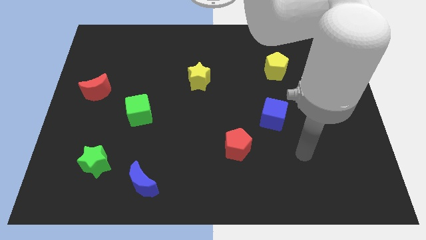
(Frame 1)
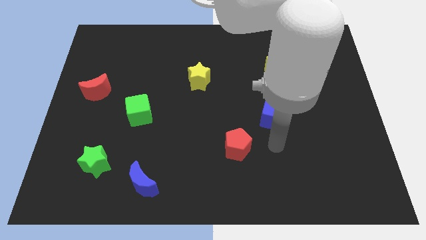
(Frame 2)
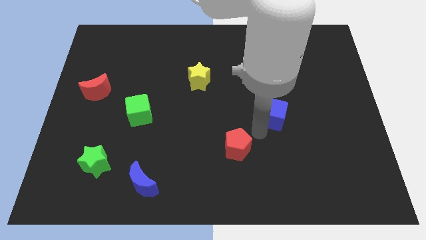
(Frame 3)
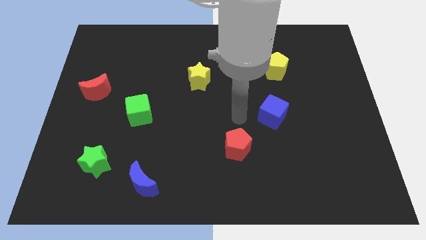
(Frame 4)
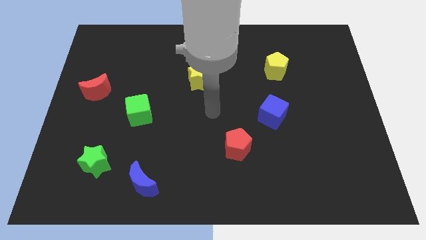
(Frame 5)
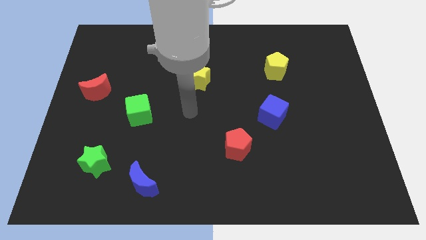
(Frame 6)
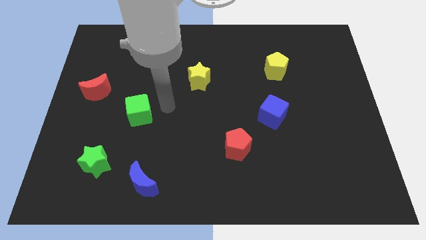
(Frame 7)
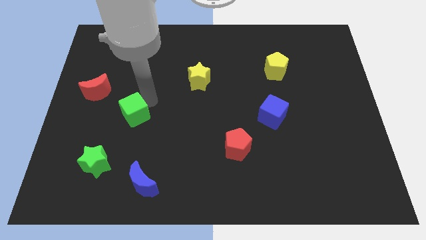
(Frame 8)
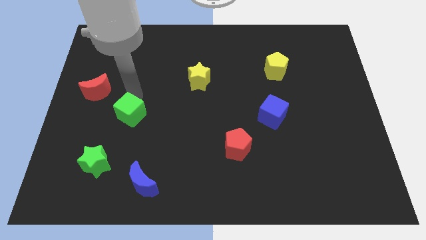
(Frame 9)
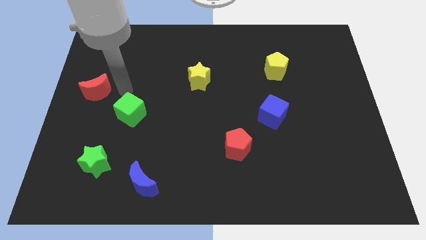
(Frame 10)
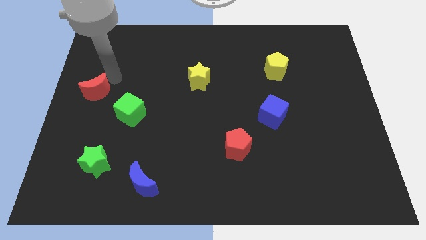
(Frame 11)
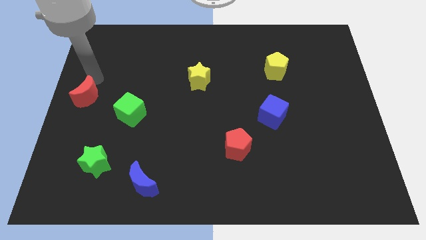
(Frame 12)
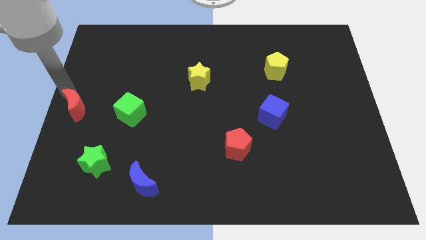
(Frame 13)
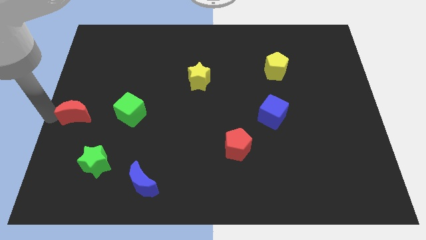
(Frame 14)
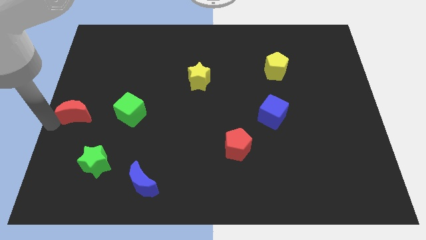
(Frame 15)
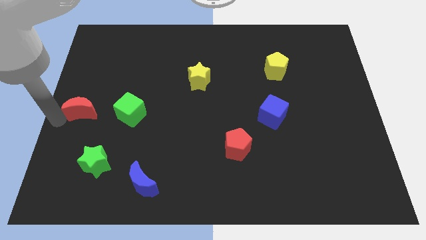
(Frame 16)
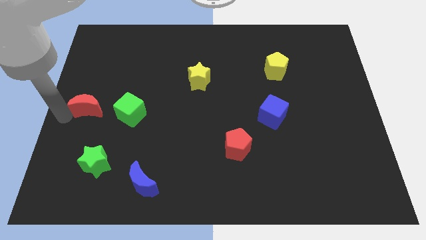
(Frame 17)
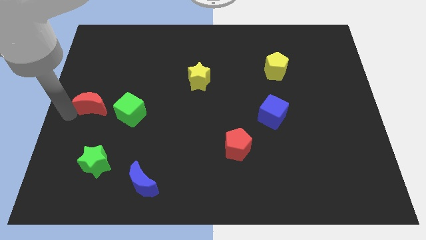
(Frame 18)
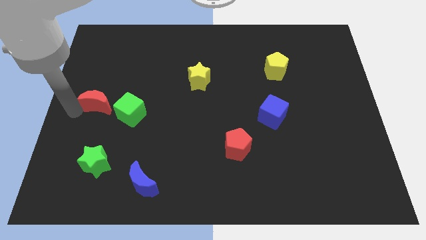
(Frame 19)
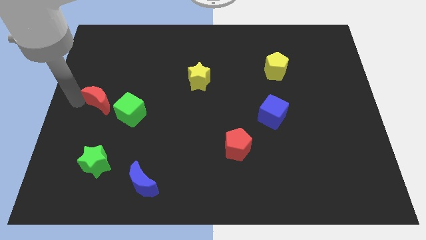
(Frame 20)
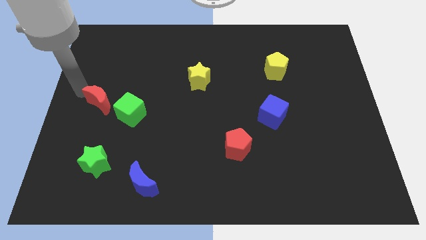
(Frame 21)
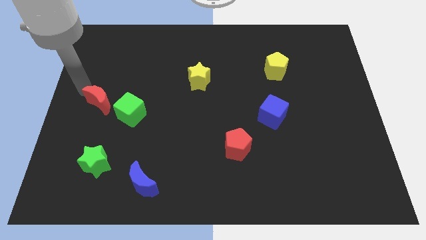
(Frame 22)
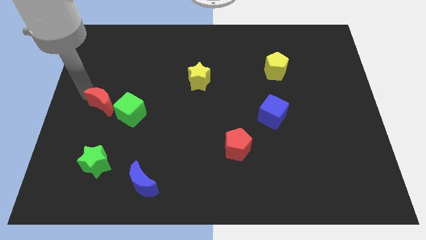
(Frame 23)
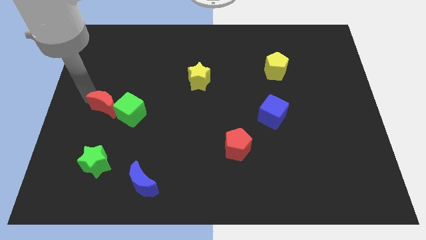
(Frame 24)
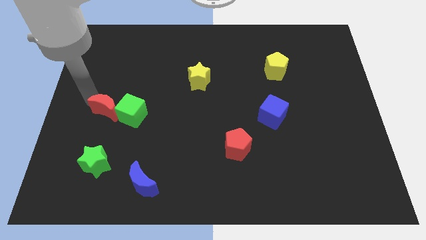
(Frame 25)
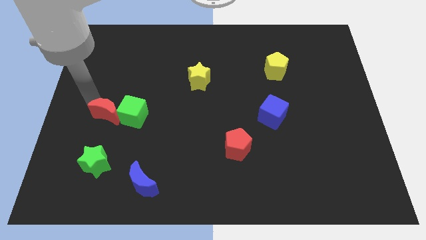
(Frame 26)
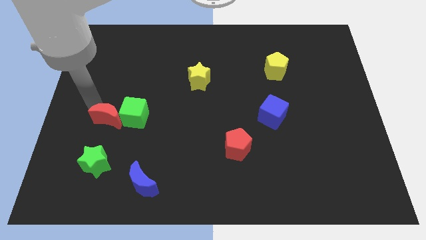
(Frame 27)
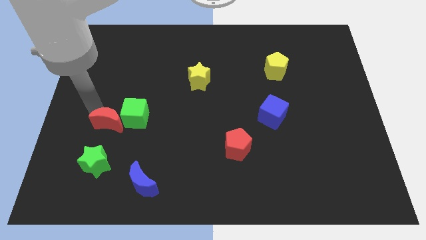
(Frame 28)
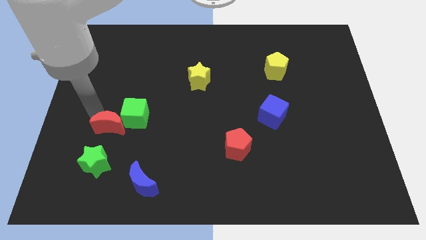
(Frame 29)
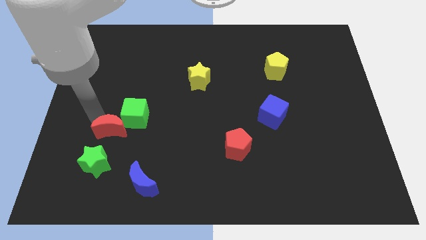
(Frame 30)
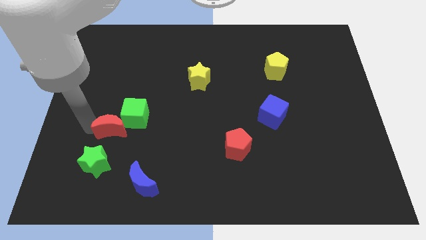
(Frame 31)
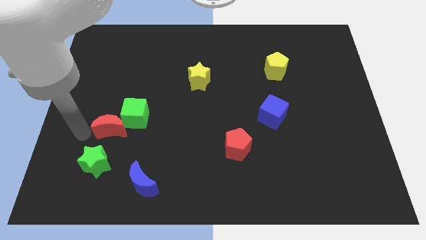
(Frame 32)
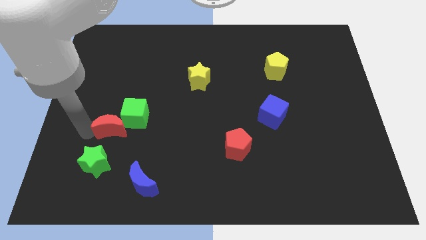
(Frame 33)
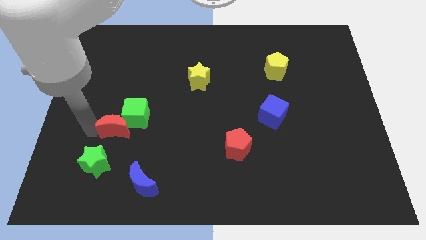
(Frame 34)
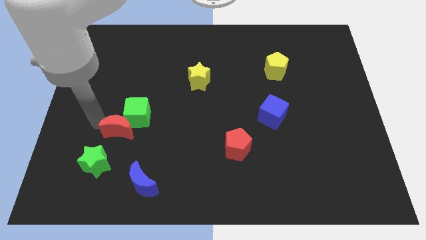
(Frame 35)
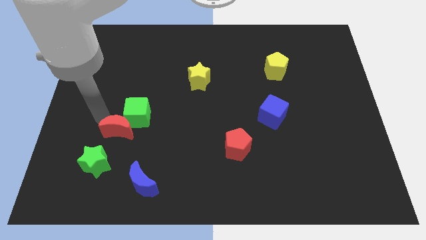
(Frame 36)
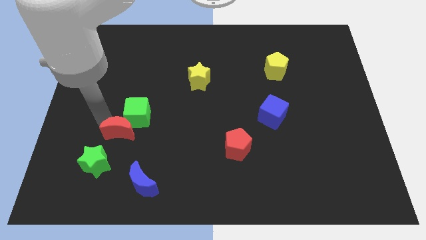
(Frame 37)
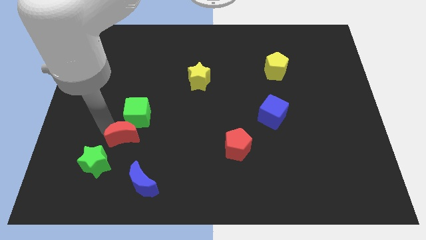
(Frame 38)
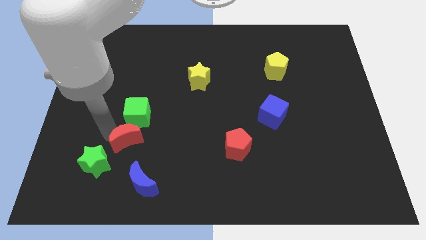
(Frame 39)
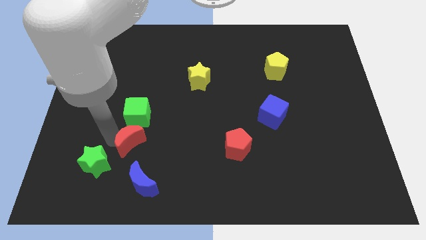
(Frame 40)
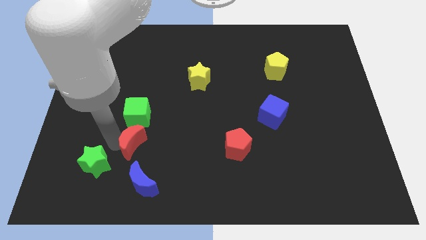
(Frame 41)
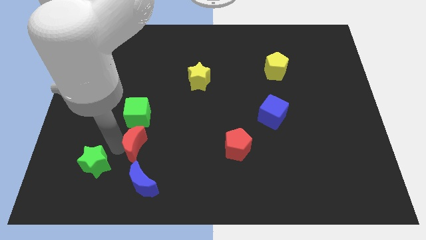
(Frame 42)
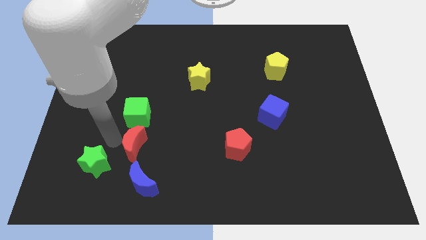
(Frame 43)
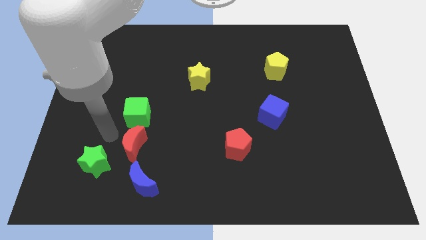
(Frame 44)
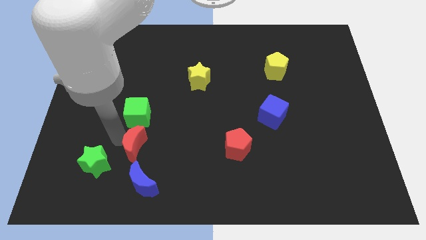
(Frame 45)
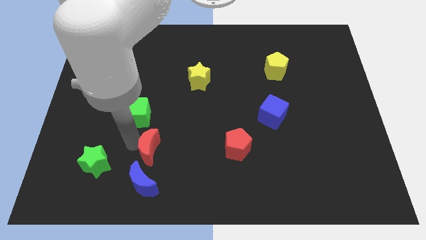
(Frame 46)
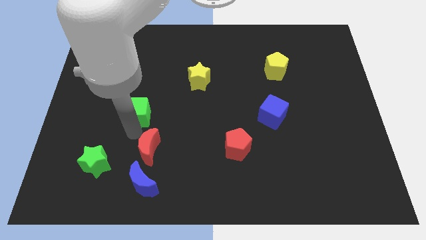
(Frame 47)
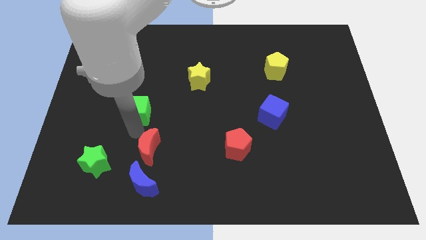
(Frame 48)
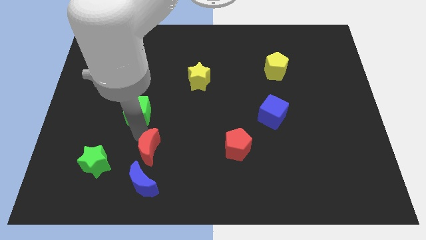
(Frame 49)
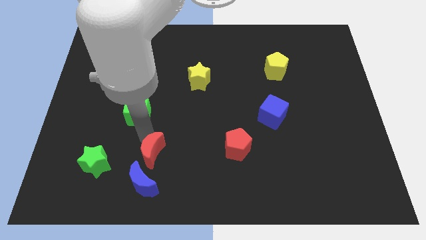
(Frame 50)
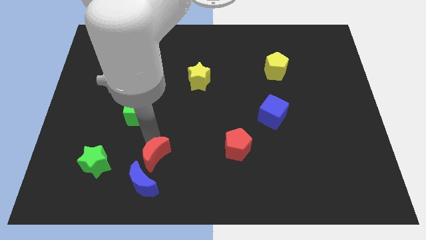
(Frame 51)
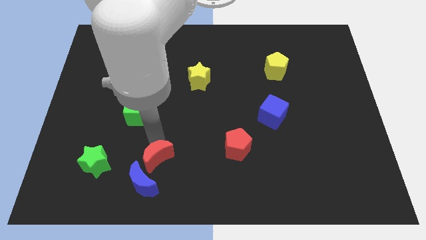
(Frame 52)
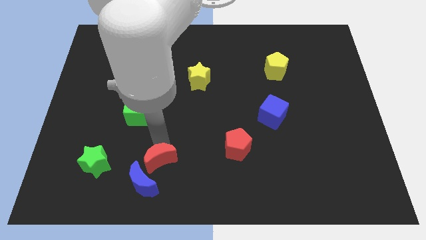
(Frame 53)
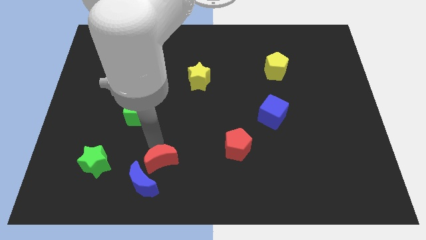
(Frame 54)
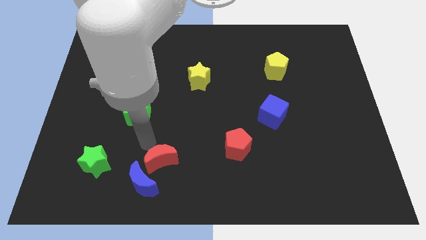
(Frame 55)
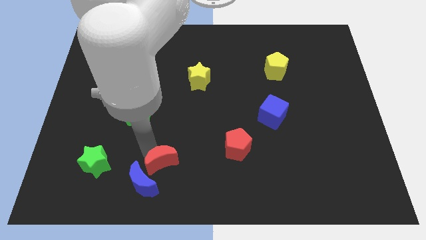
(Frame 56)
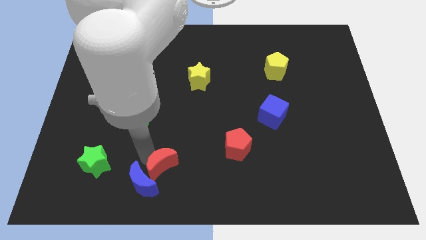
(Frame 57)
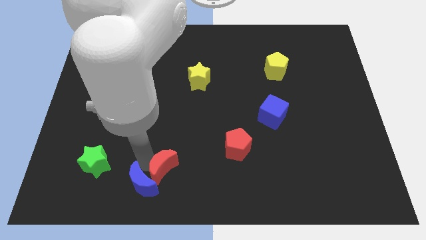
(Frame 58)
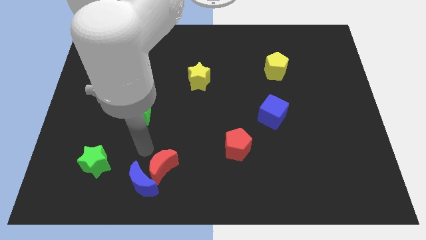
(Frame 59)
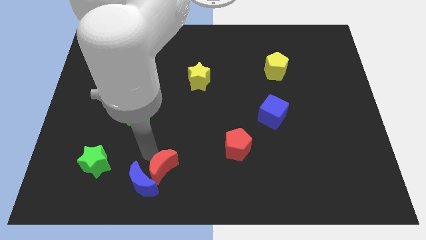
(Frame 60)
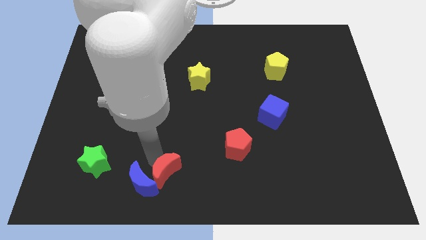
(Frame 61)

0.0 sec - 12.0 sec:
move the red moon to the bottom side

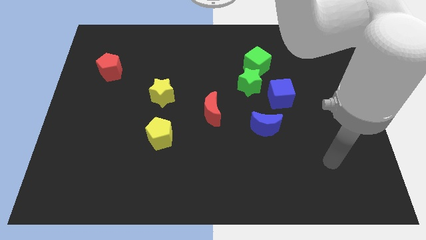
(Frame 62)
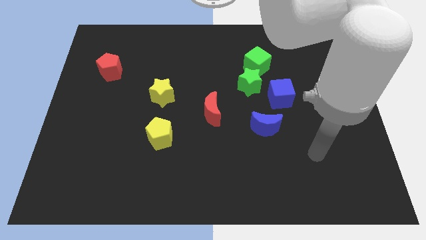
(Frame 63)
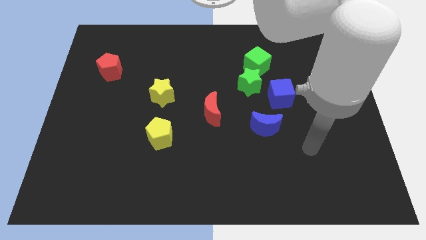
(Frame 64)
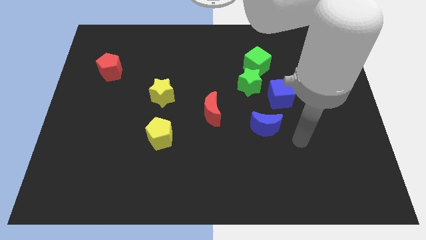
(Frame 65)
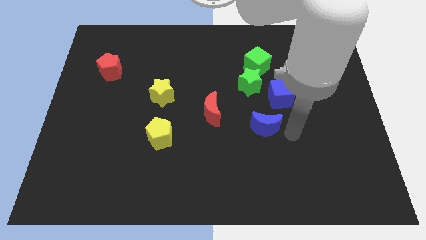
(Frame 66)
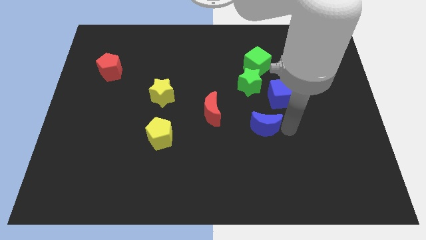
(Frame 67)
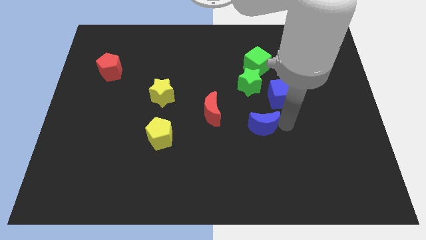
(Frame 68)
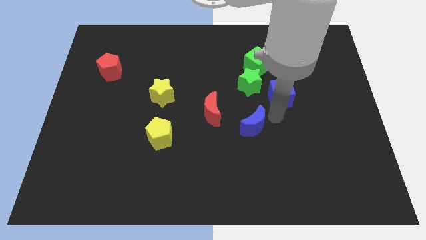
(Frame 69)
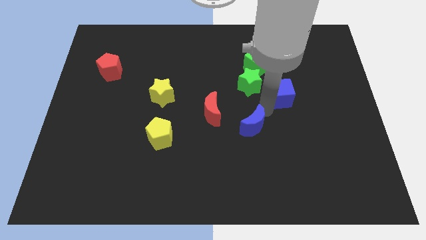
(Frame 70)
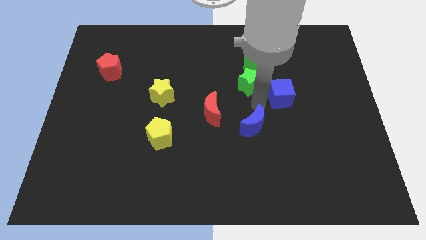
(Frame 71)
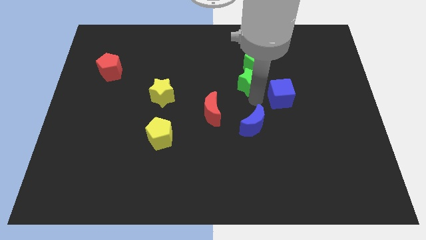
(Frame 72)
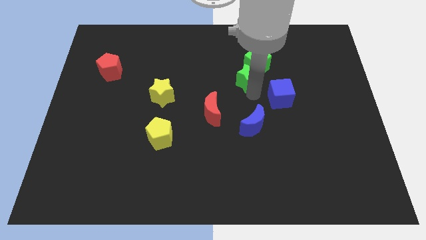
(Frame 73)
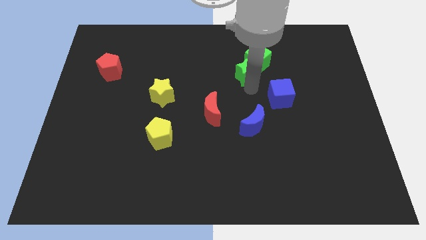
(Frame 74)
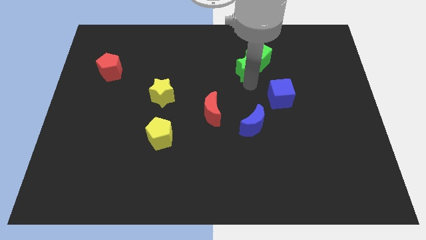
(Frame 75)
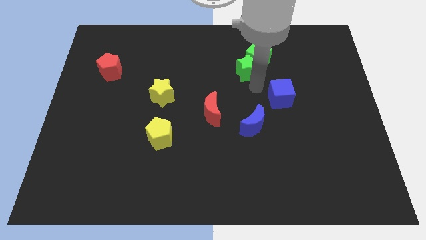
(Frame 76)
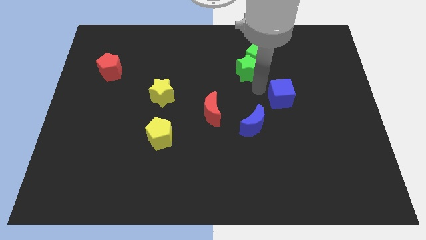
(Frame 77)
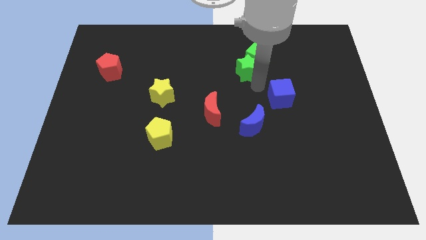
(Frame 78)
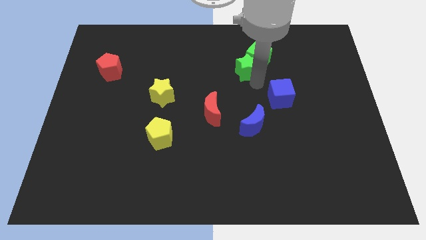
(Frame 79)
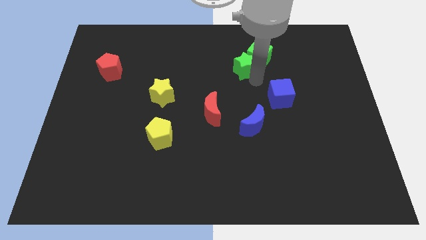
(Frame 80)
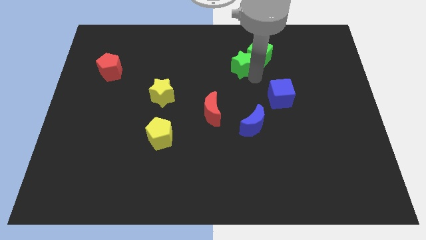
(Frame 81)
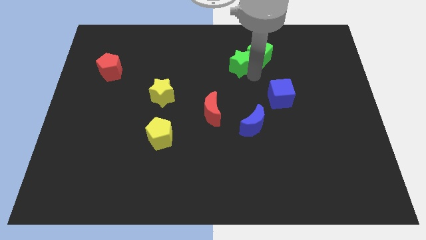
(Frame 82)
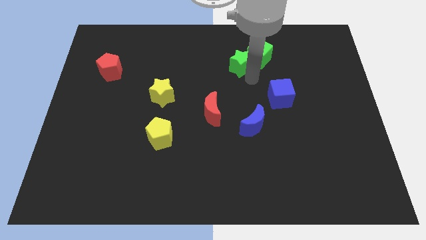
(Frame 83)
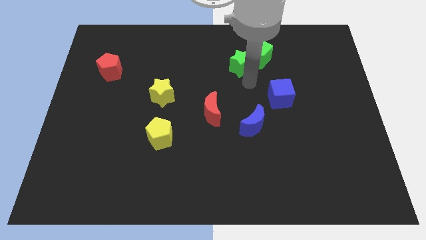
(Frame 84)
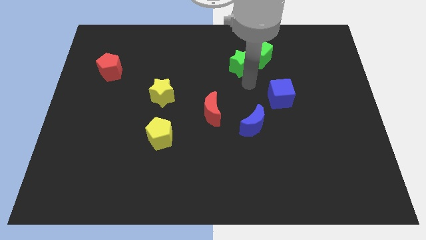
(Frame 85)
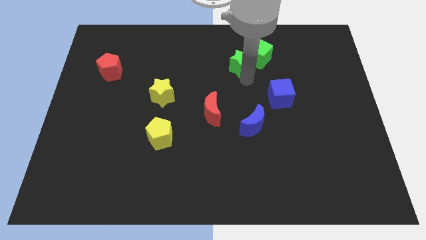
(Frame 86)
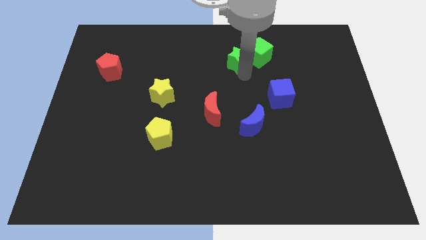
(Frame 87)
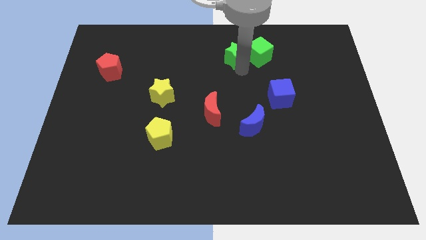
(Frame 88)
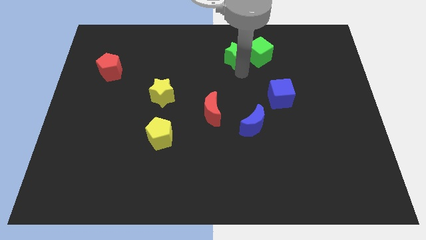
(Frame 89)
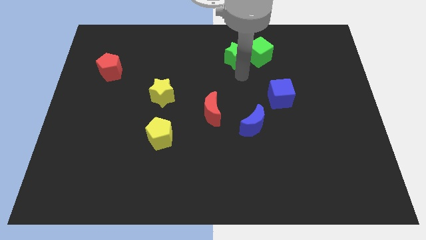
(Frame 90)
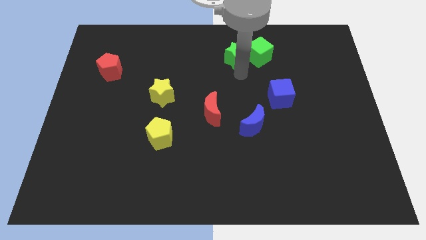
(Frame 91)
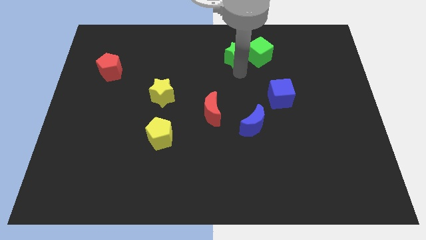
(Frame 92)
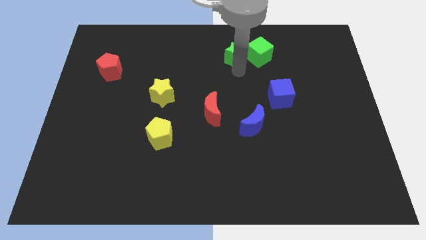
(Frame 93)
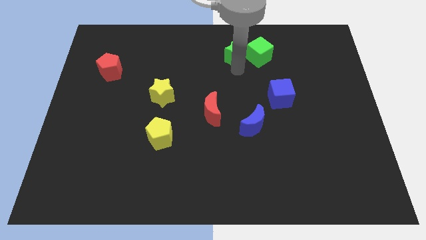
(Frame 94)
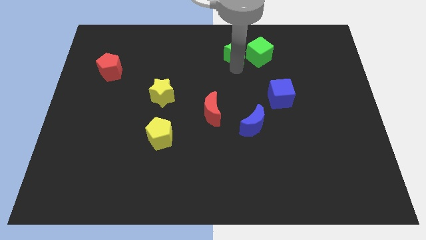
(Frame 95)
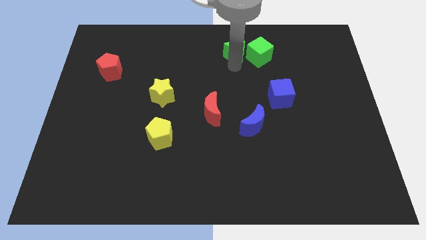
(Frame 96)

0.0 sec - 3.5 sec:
put the green star to the towards your base
